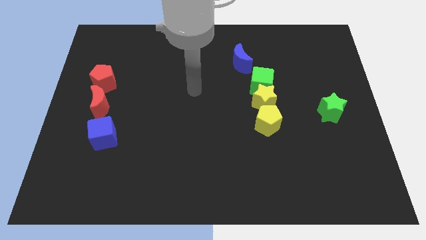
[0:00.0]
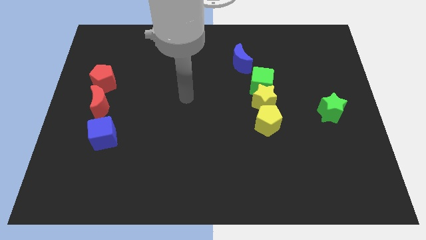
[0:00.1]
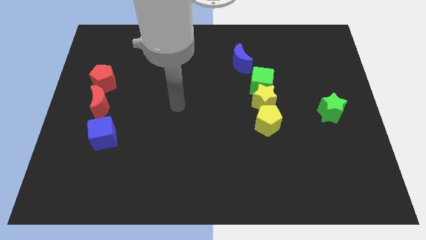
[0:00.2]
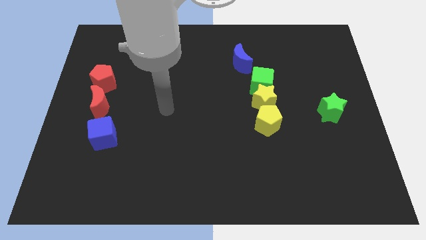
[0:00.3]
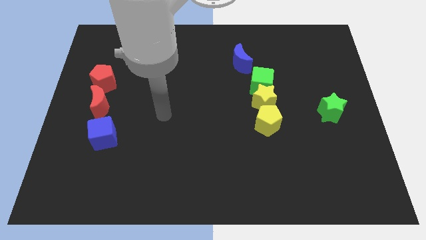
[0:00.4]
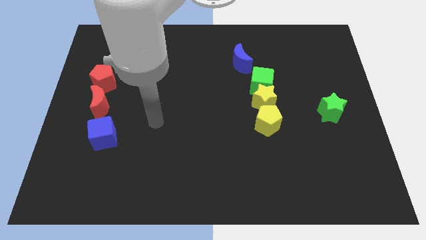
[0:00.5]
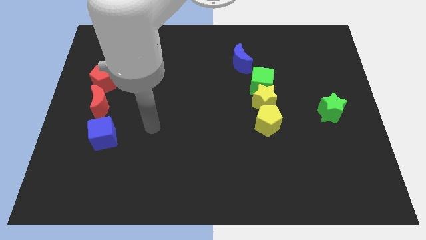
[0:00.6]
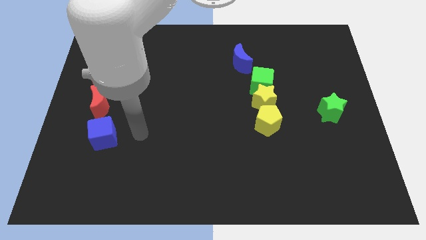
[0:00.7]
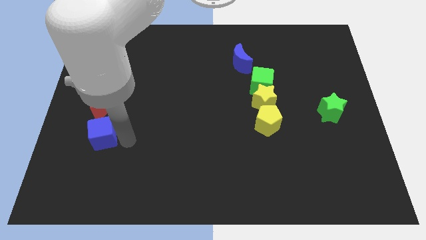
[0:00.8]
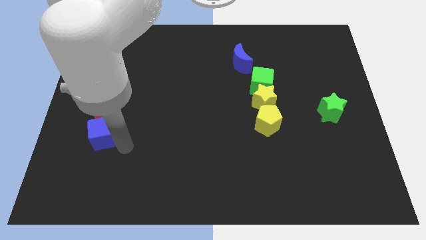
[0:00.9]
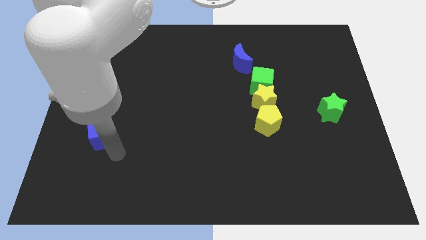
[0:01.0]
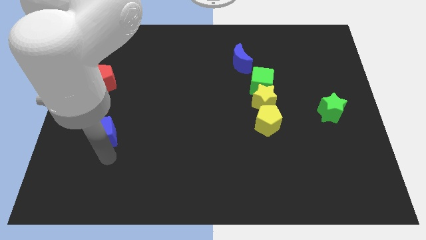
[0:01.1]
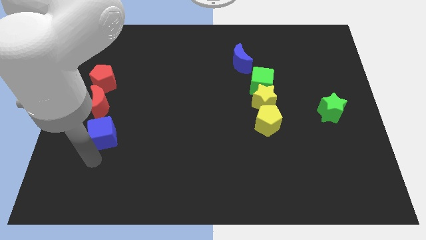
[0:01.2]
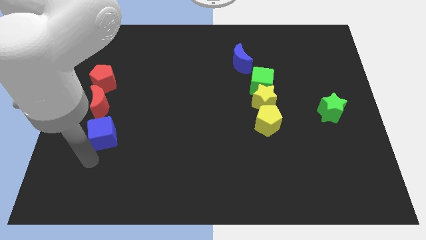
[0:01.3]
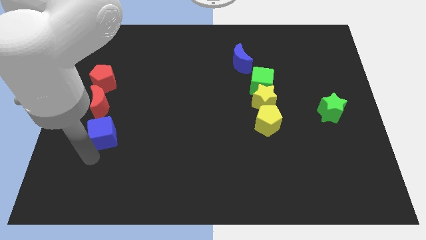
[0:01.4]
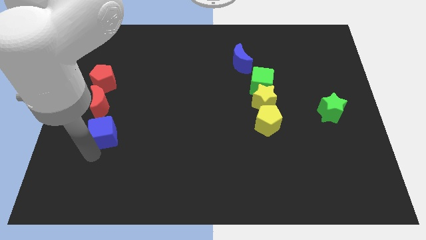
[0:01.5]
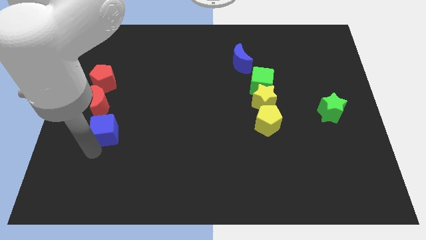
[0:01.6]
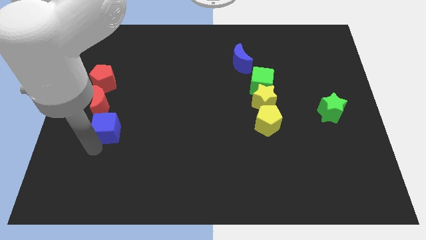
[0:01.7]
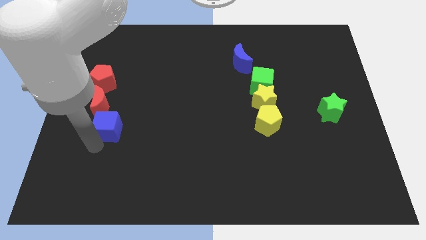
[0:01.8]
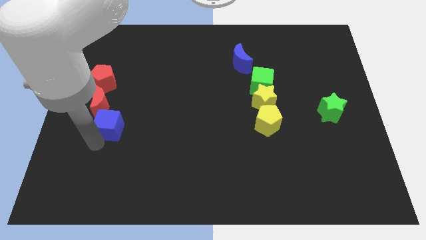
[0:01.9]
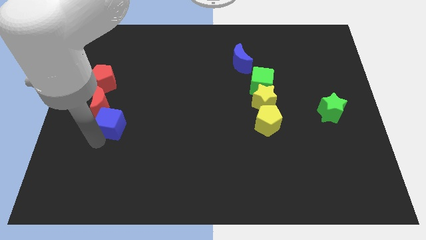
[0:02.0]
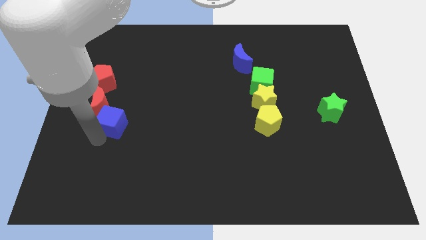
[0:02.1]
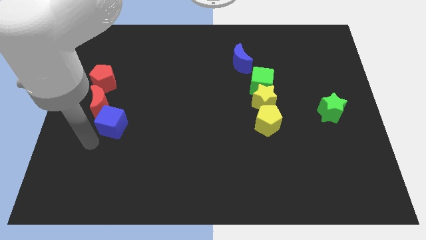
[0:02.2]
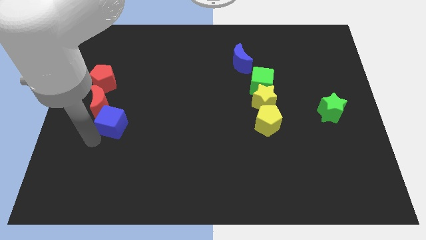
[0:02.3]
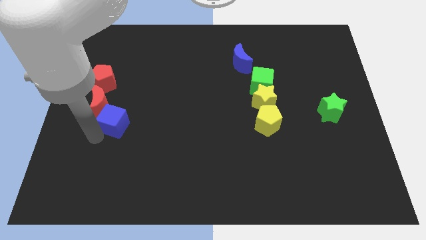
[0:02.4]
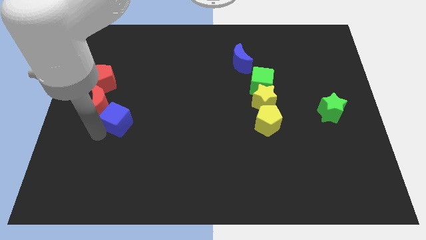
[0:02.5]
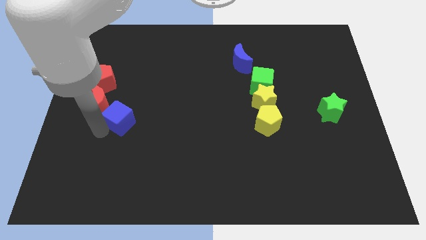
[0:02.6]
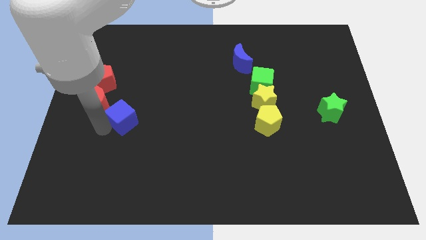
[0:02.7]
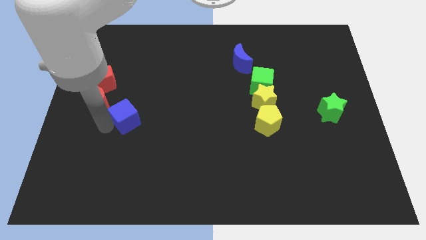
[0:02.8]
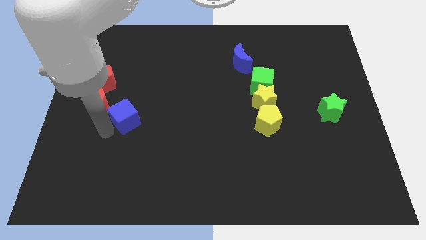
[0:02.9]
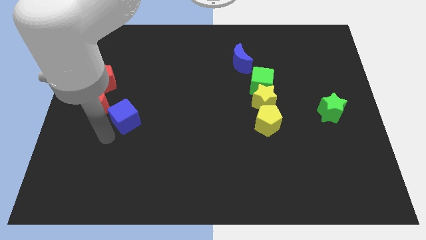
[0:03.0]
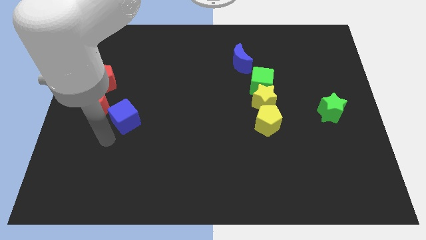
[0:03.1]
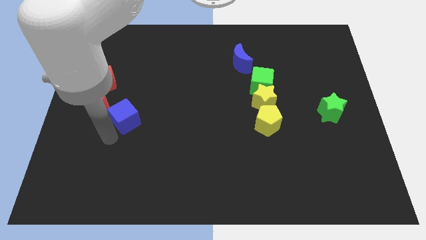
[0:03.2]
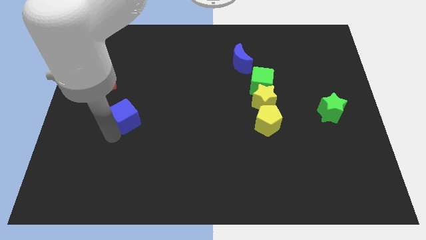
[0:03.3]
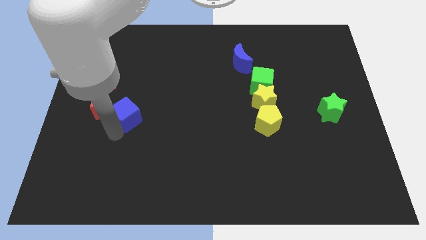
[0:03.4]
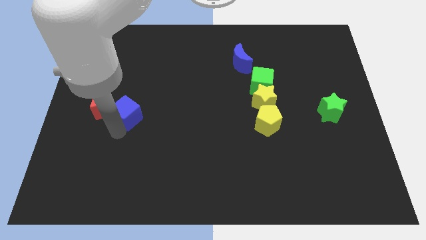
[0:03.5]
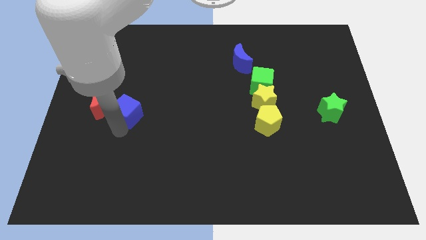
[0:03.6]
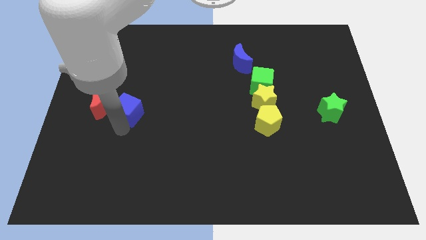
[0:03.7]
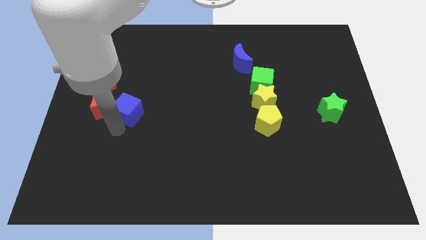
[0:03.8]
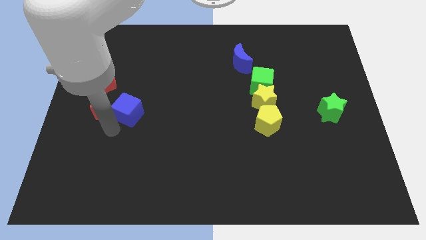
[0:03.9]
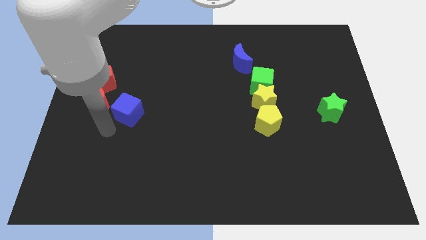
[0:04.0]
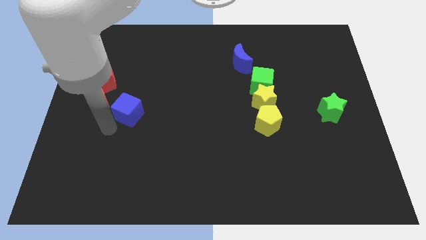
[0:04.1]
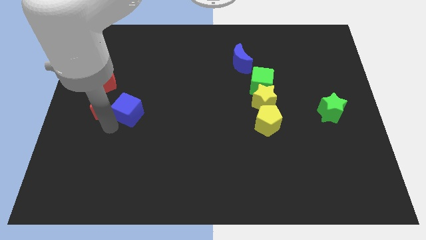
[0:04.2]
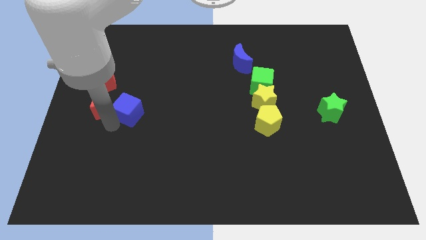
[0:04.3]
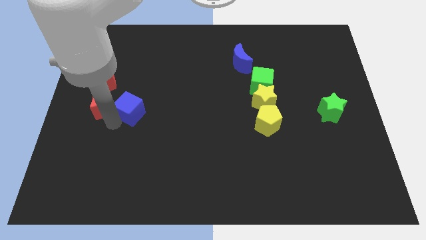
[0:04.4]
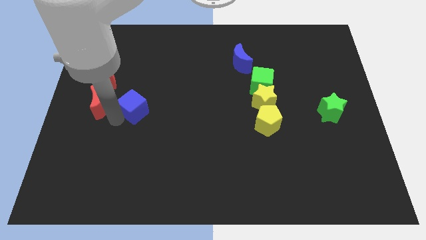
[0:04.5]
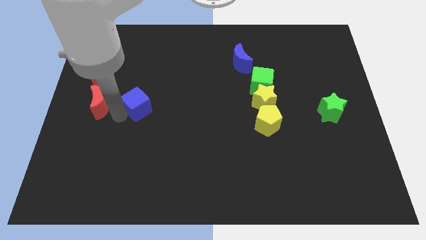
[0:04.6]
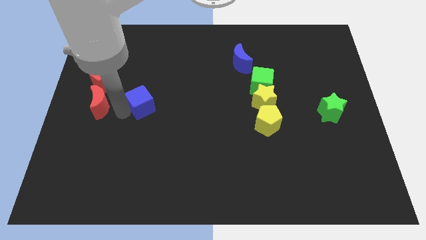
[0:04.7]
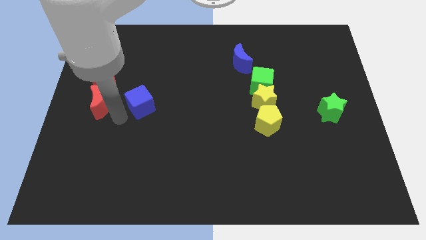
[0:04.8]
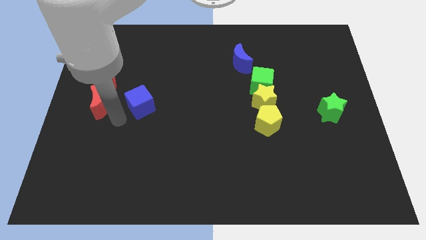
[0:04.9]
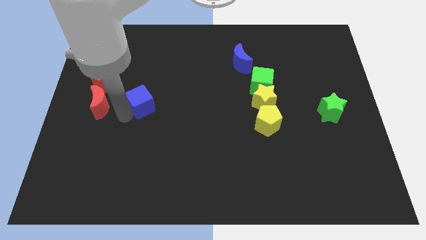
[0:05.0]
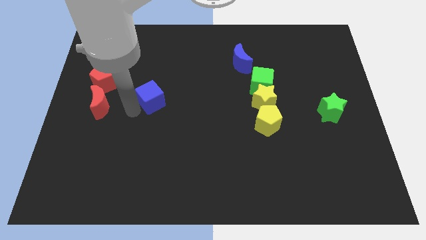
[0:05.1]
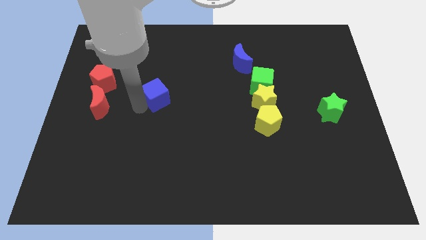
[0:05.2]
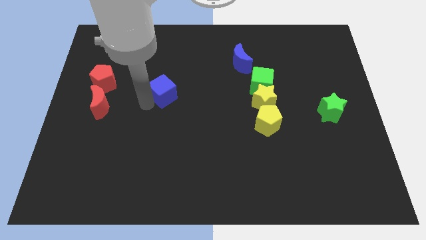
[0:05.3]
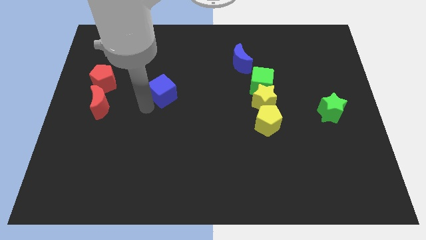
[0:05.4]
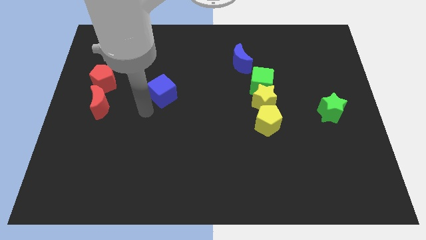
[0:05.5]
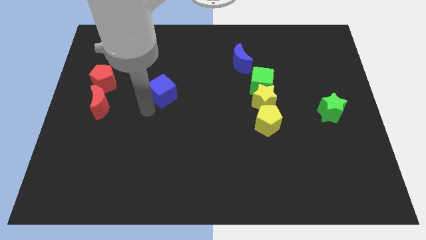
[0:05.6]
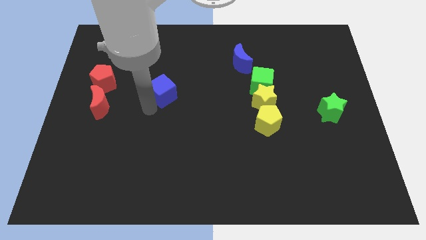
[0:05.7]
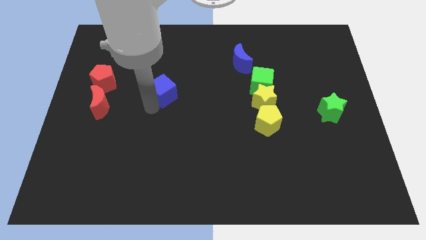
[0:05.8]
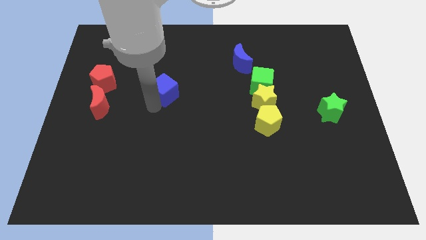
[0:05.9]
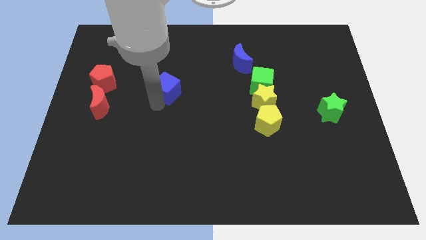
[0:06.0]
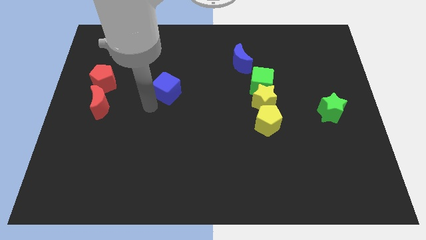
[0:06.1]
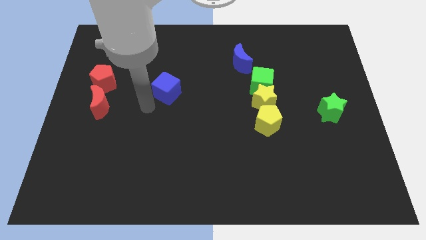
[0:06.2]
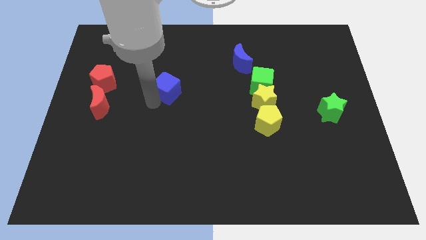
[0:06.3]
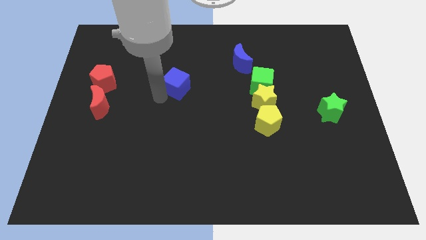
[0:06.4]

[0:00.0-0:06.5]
slide the blue cube up and right

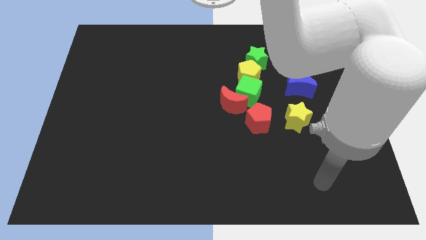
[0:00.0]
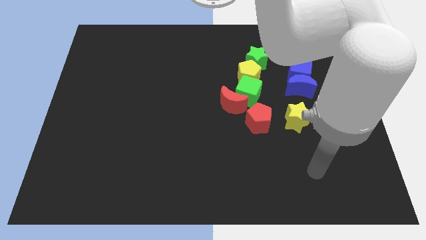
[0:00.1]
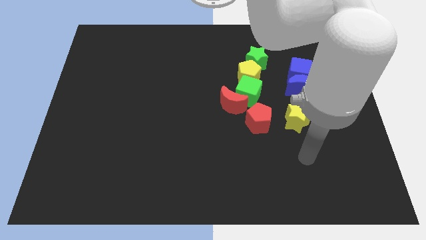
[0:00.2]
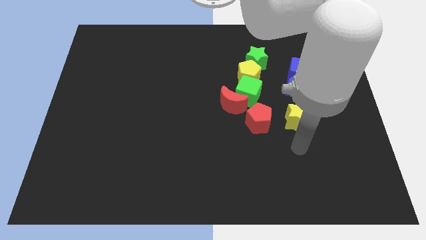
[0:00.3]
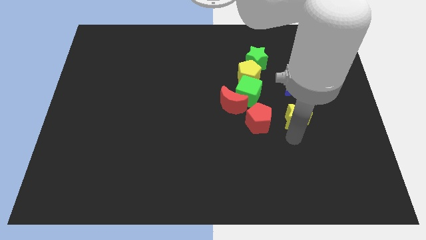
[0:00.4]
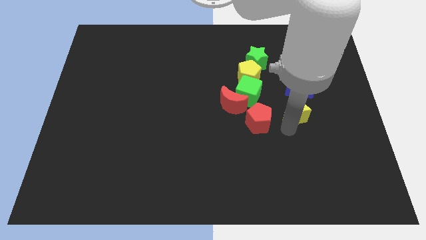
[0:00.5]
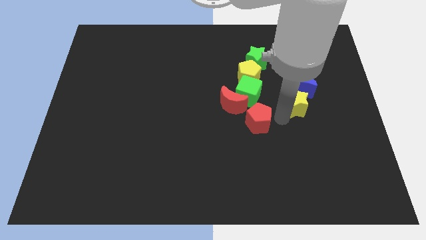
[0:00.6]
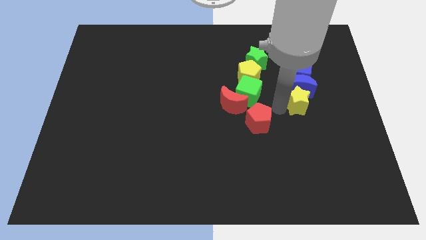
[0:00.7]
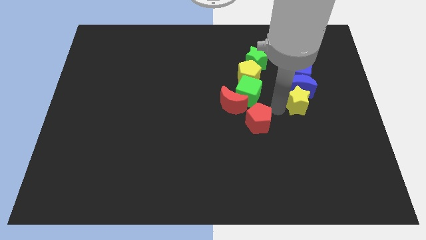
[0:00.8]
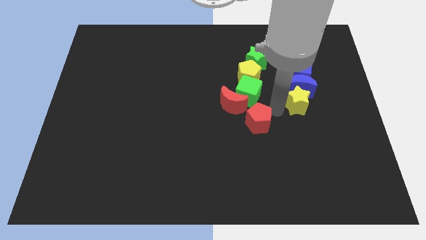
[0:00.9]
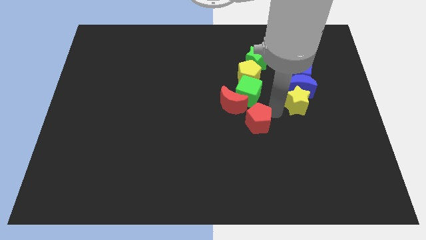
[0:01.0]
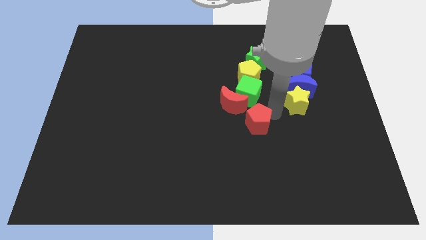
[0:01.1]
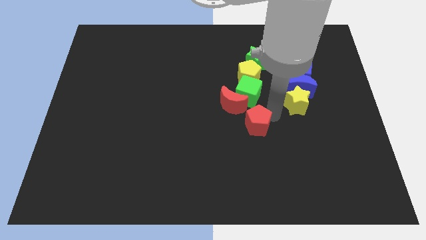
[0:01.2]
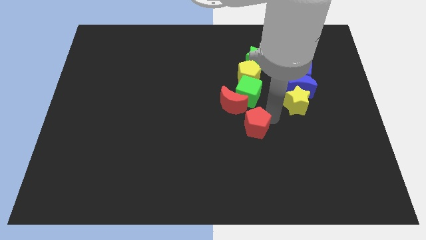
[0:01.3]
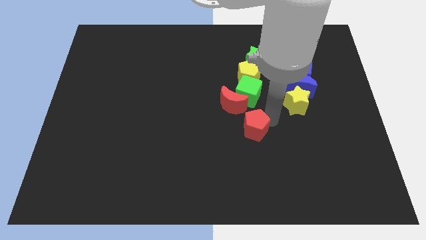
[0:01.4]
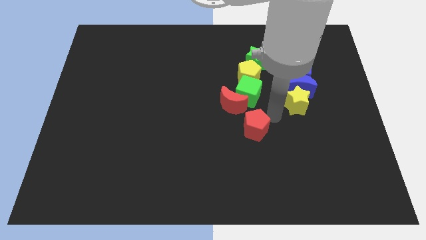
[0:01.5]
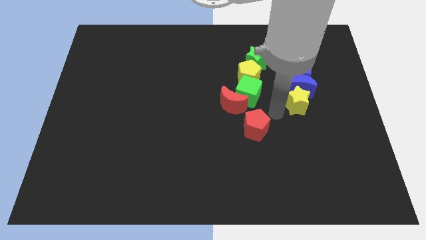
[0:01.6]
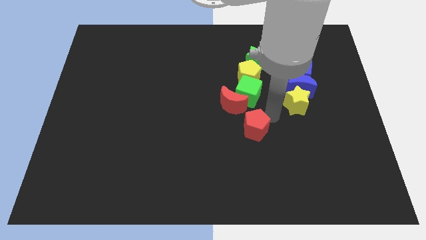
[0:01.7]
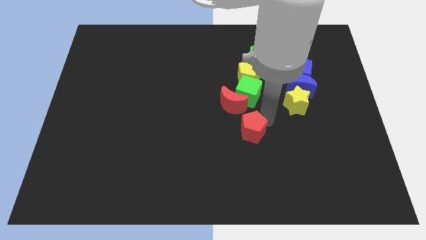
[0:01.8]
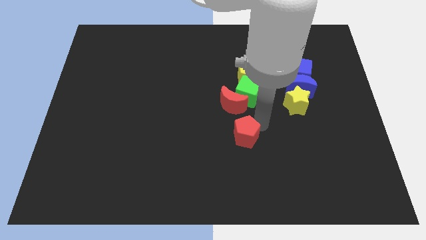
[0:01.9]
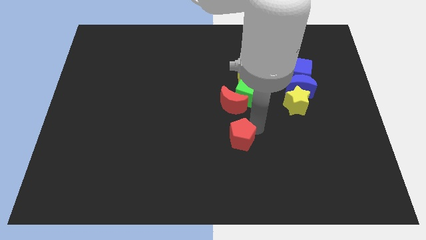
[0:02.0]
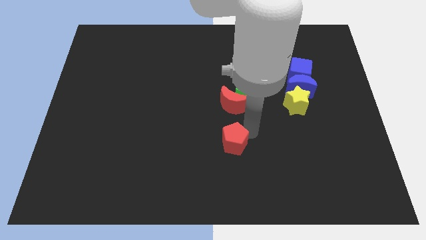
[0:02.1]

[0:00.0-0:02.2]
push the red pentagon somewhat down and then left
